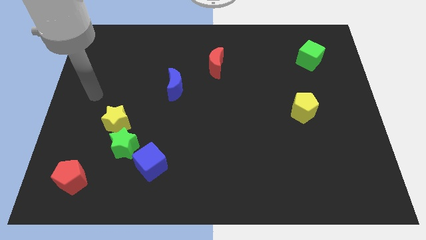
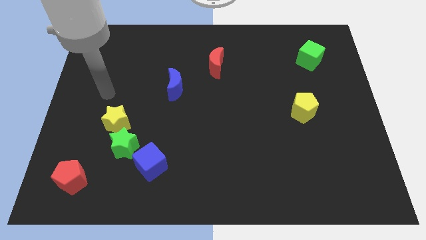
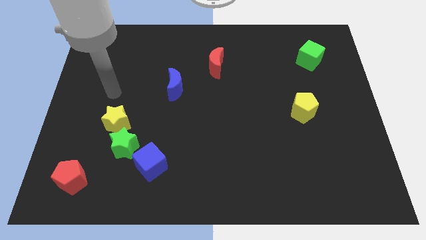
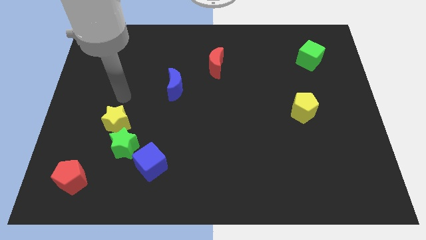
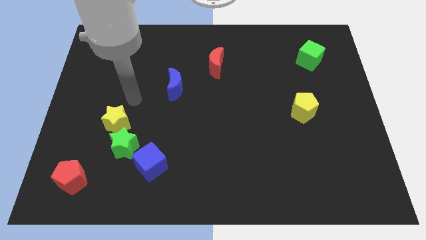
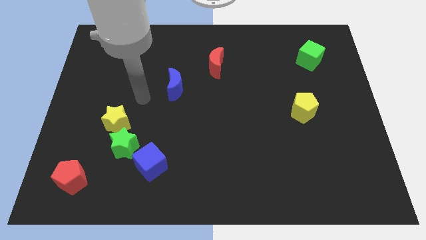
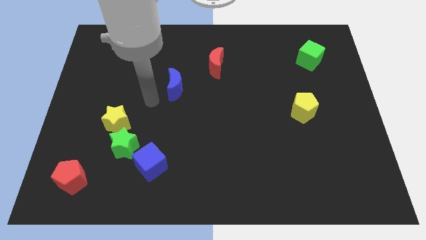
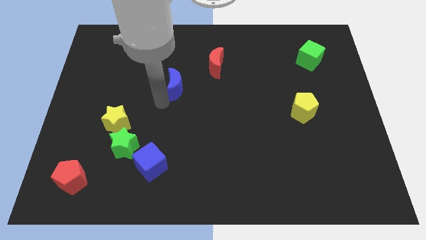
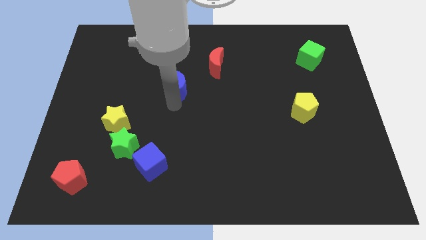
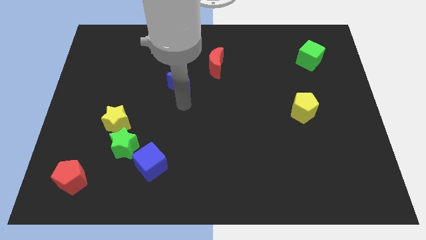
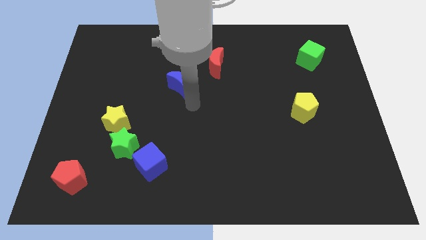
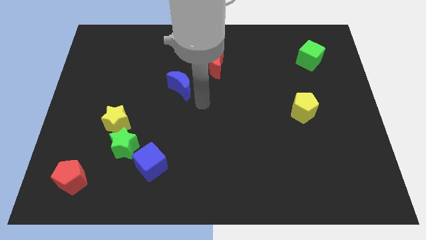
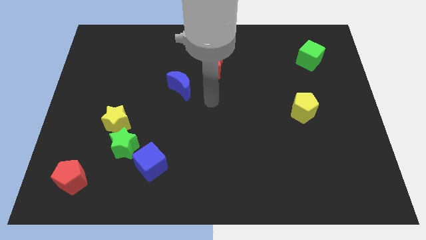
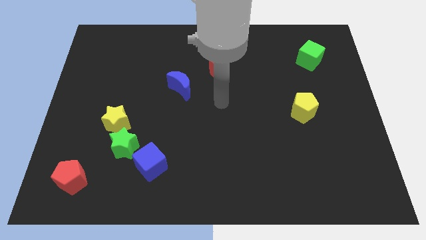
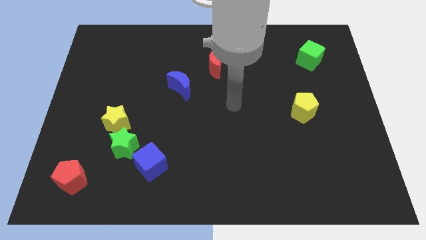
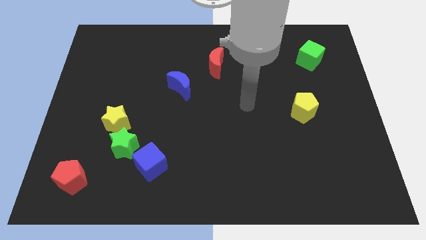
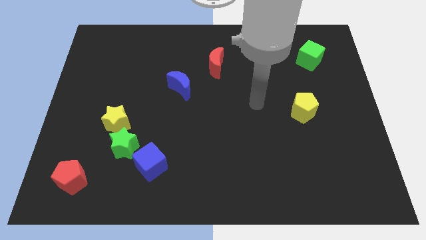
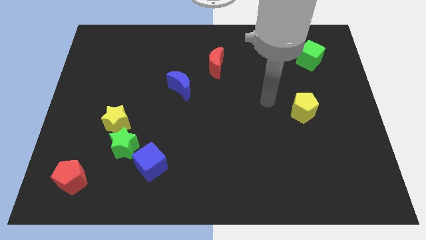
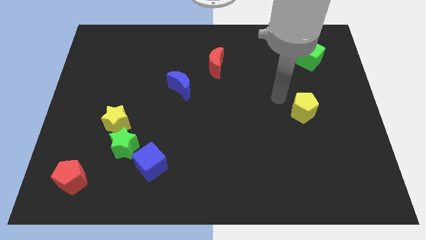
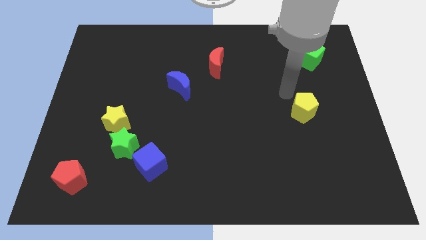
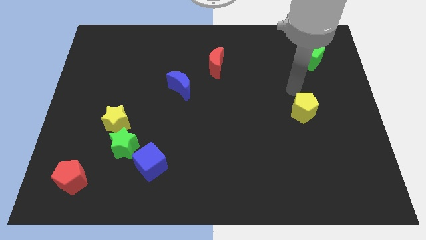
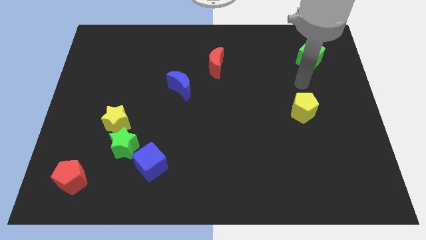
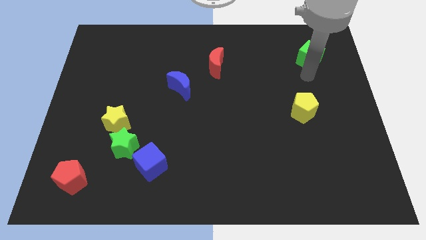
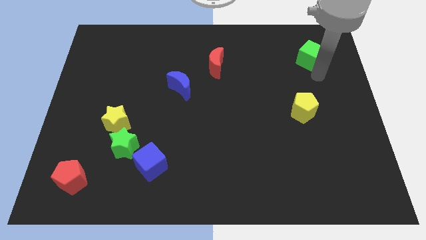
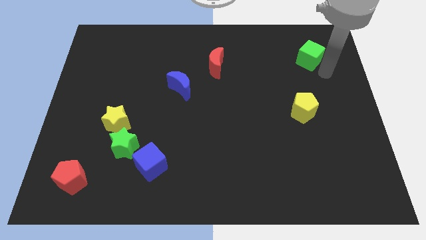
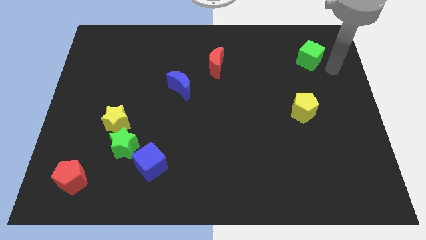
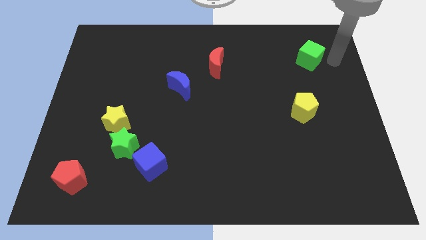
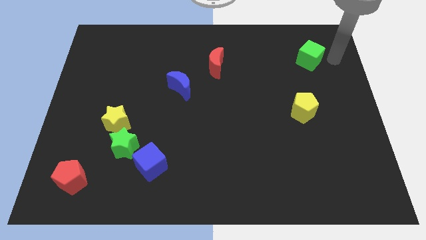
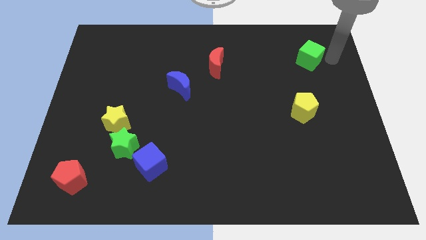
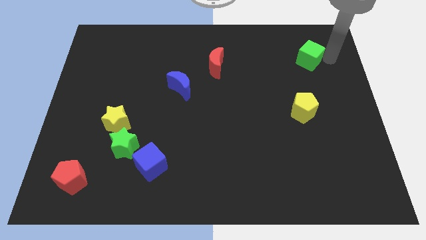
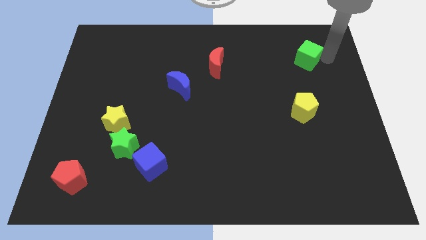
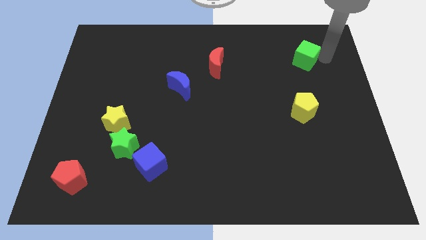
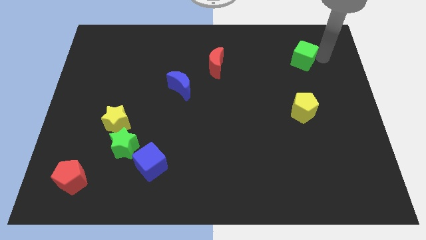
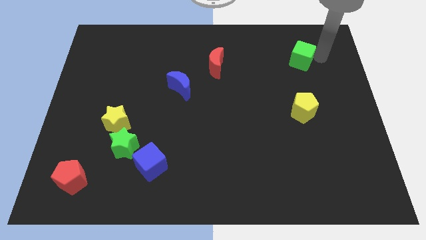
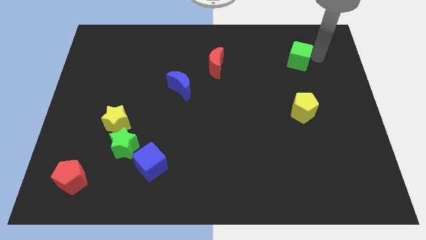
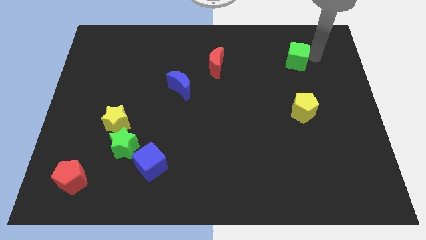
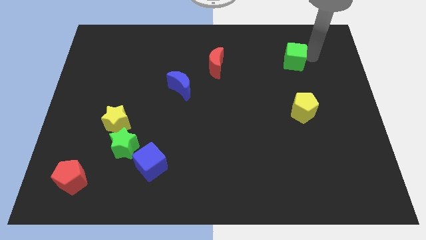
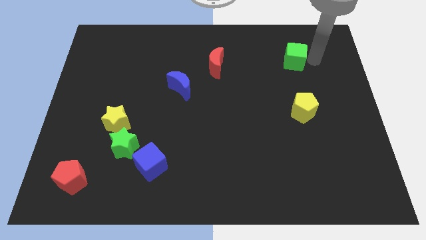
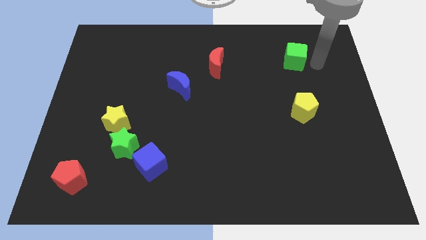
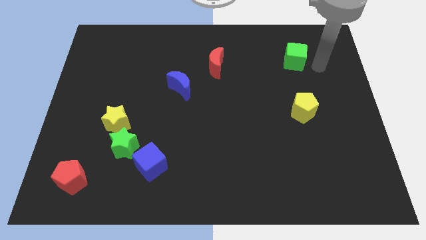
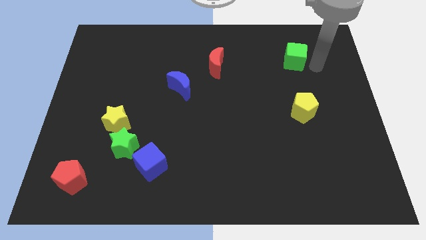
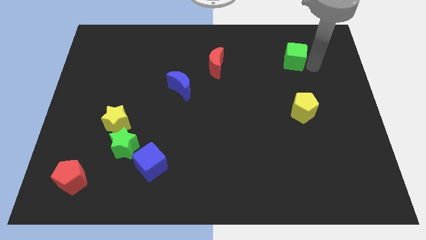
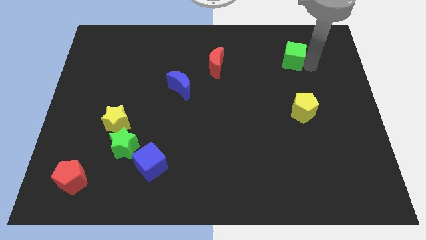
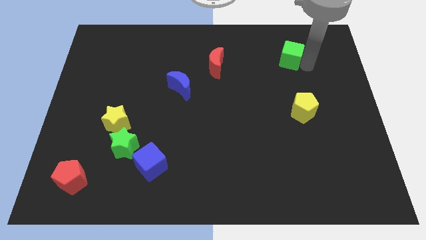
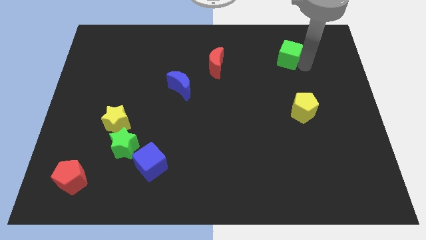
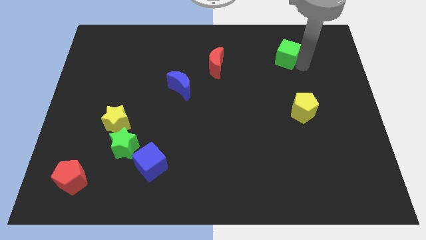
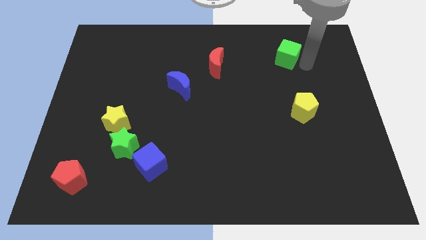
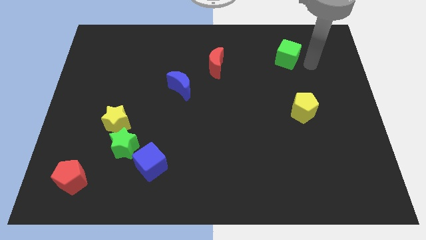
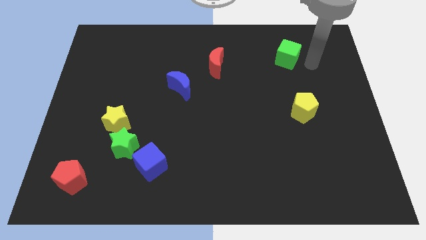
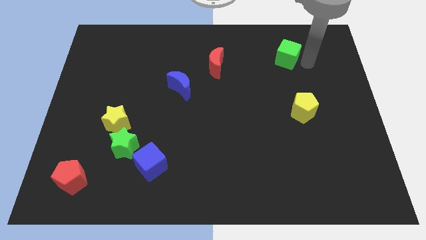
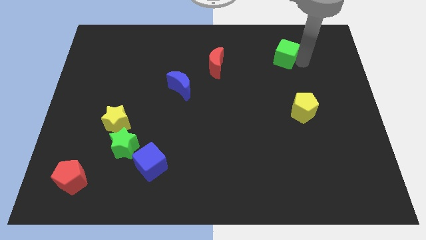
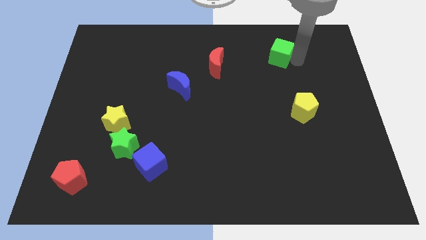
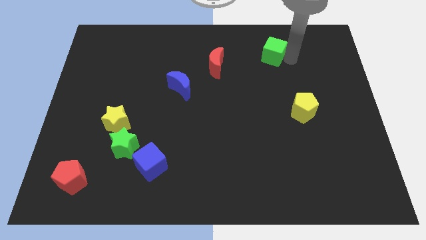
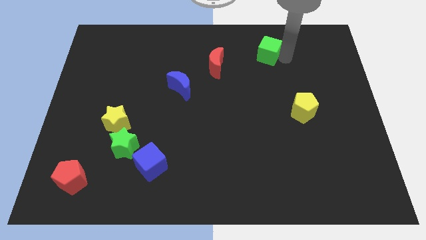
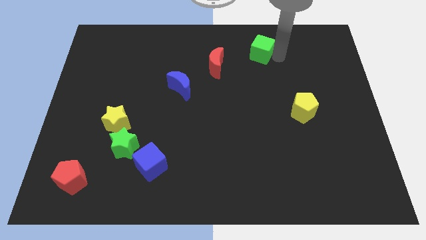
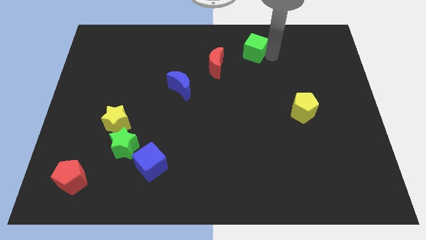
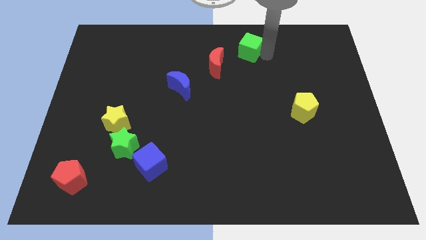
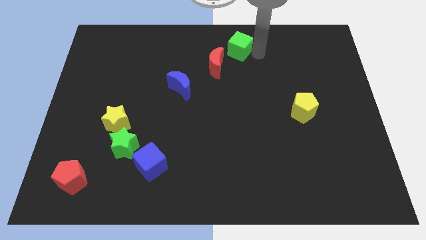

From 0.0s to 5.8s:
push the green cube to the top

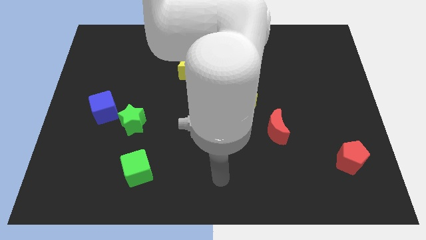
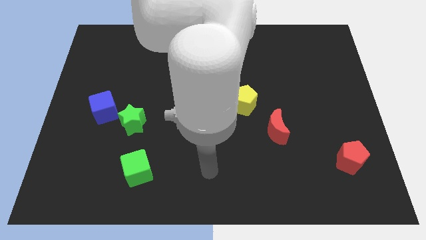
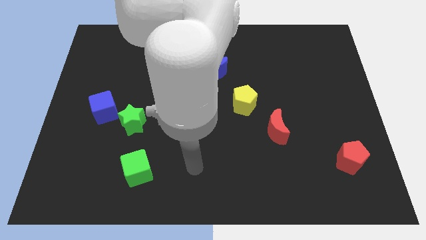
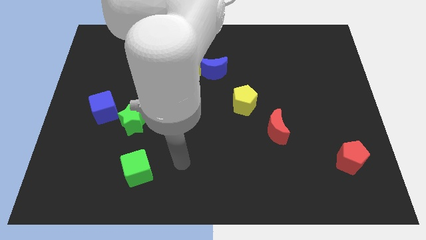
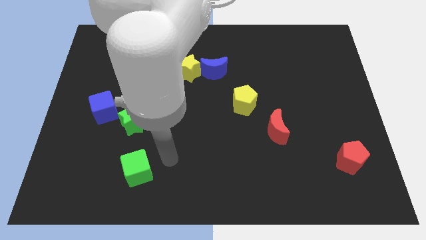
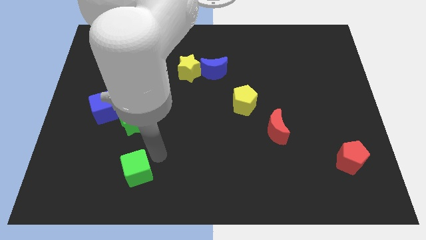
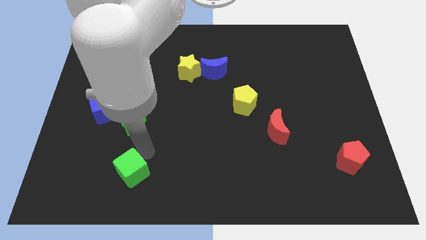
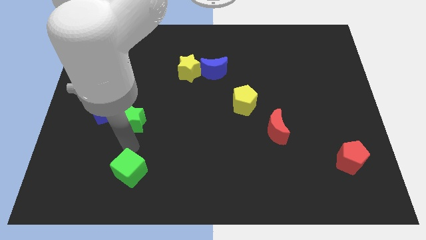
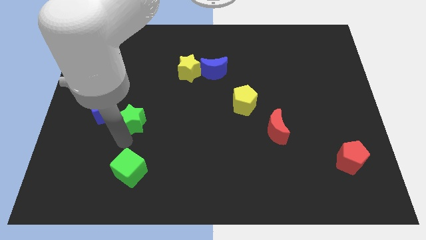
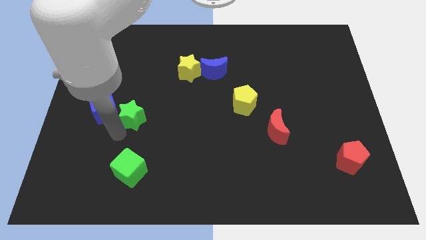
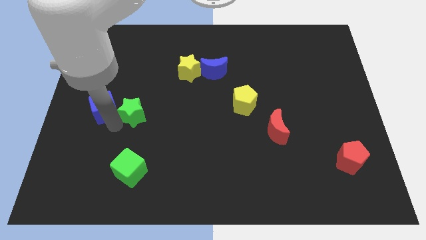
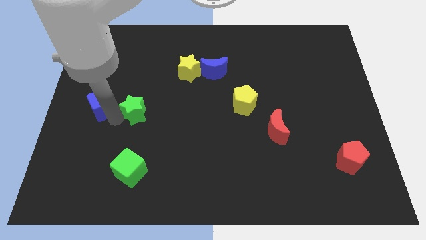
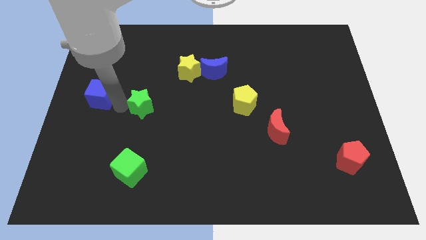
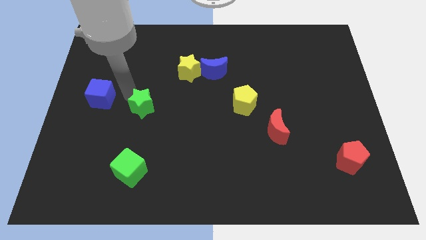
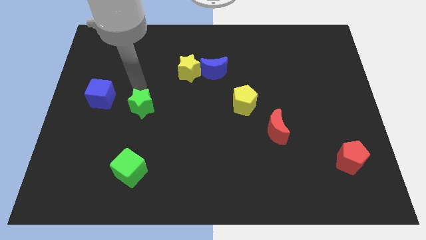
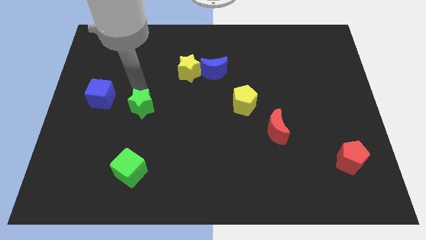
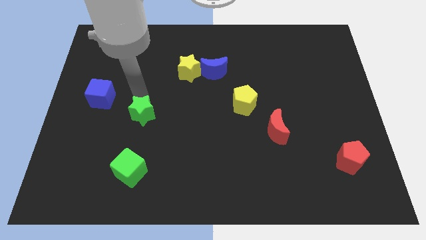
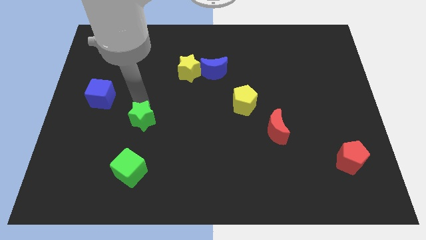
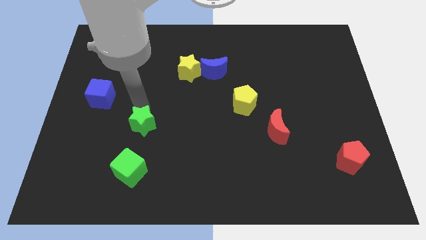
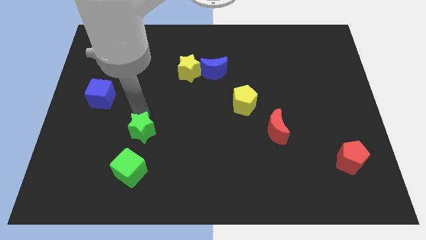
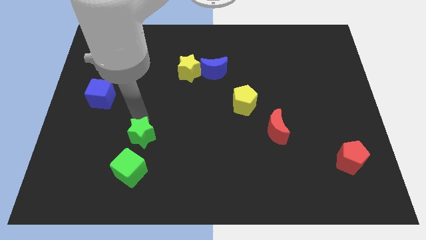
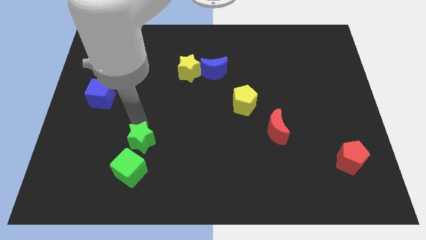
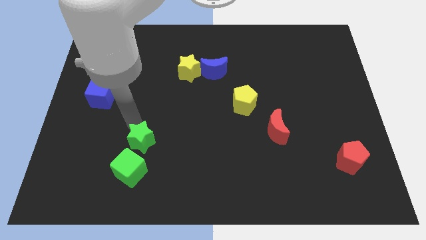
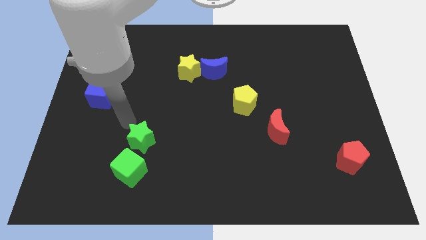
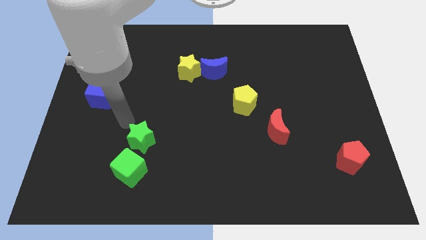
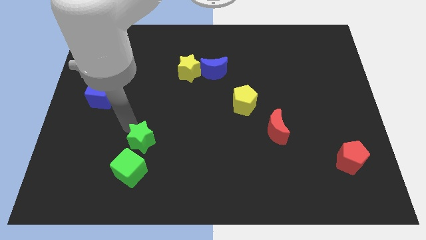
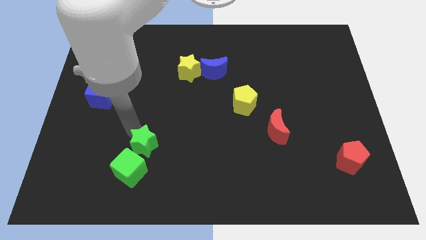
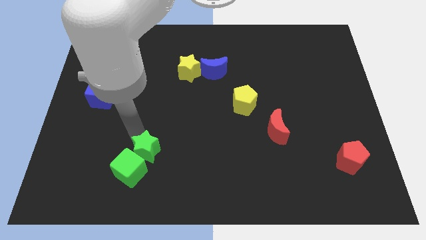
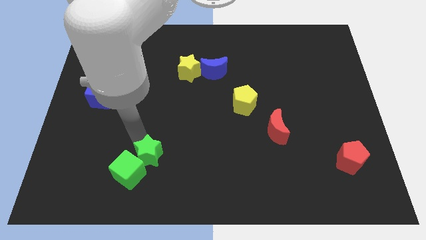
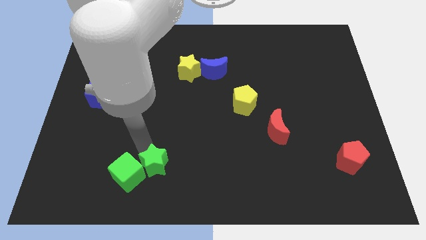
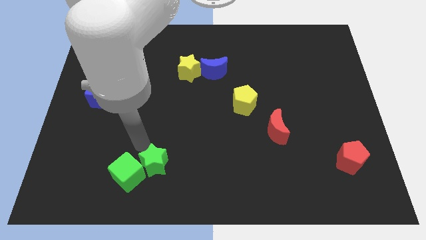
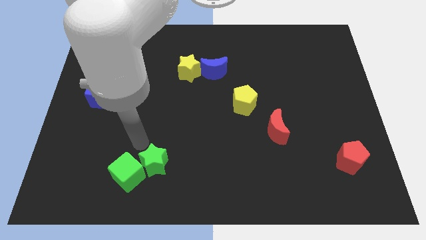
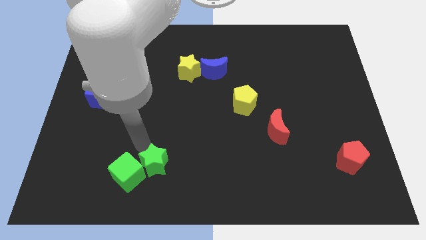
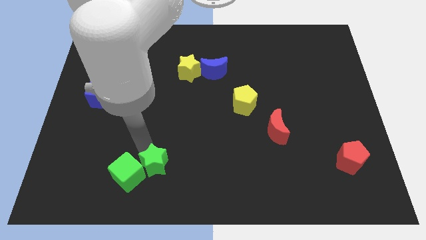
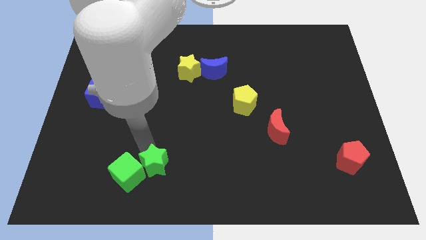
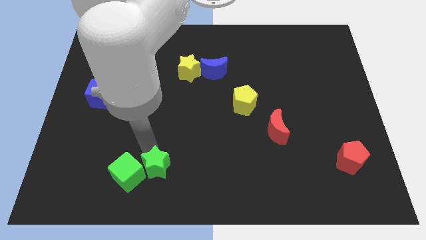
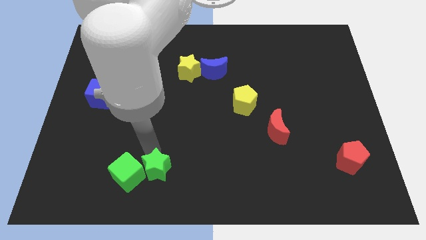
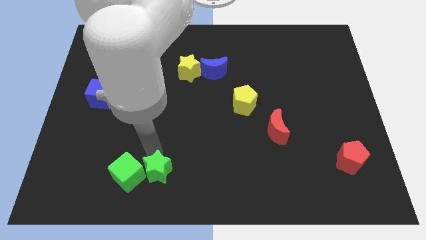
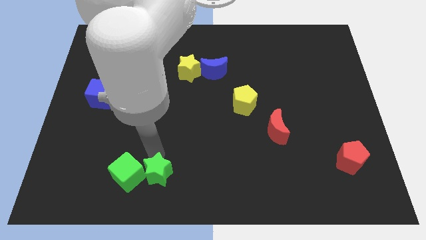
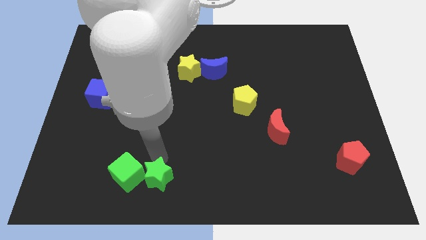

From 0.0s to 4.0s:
move the green star to the bottom side
